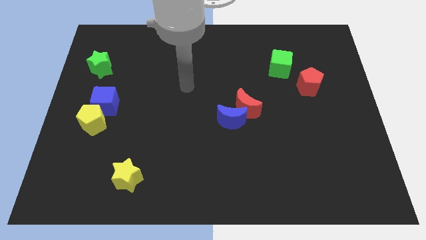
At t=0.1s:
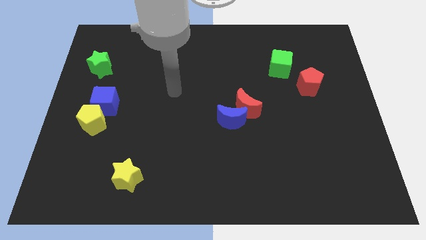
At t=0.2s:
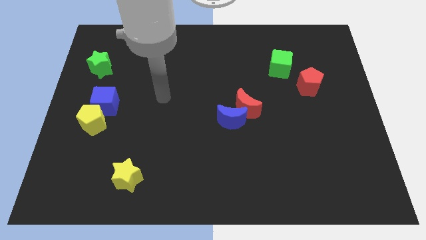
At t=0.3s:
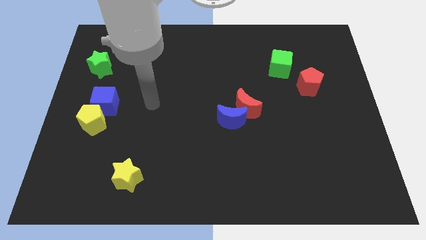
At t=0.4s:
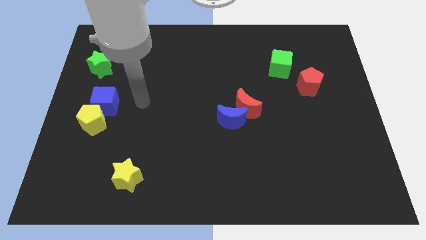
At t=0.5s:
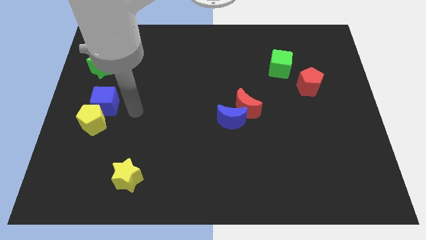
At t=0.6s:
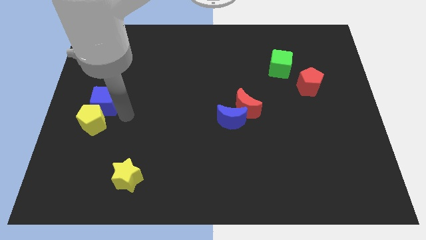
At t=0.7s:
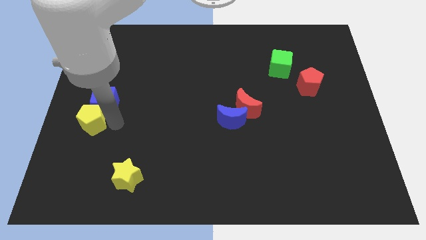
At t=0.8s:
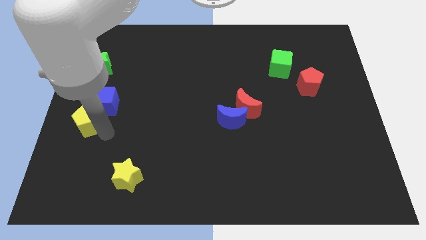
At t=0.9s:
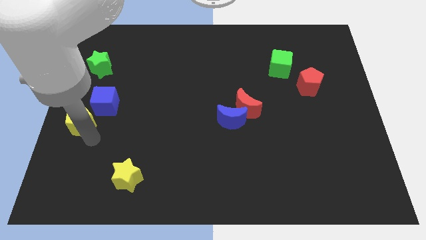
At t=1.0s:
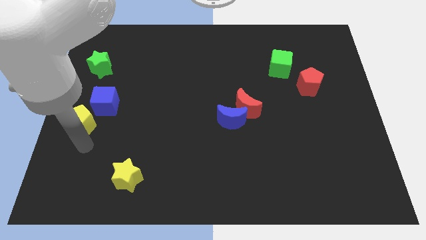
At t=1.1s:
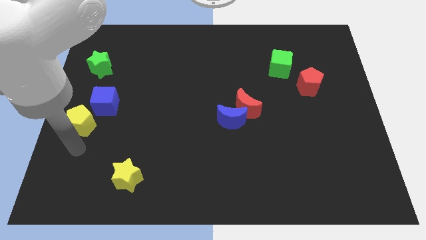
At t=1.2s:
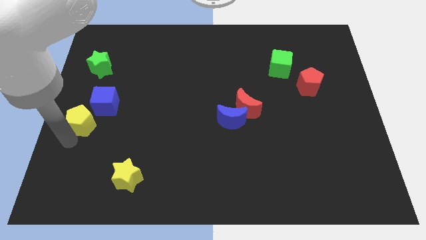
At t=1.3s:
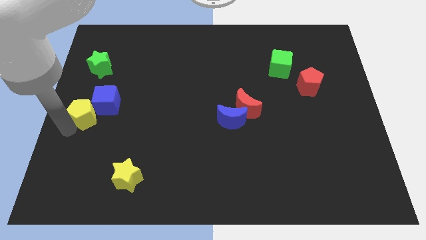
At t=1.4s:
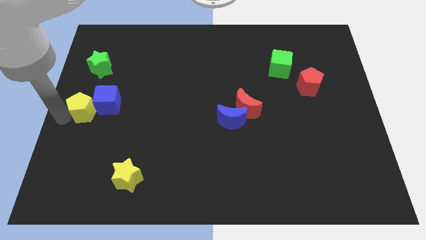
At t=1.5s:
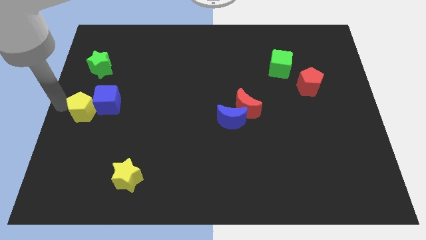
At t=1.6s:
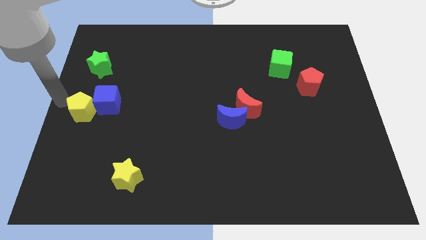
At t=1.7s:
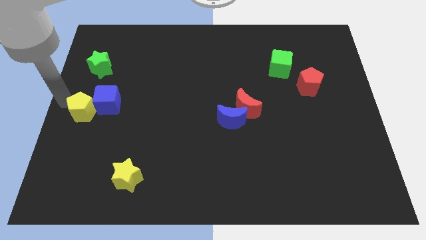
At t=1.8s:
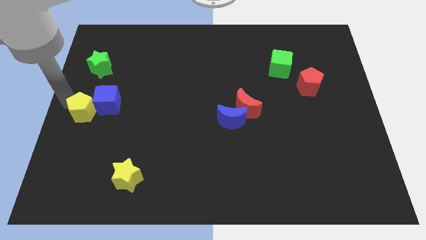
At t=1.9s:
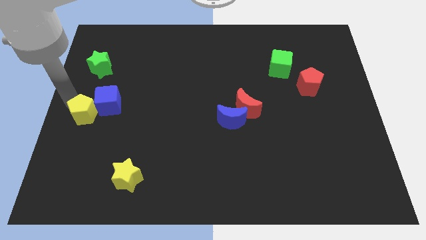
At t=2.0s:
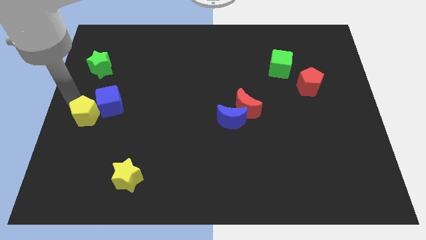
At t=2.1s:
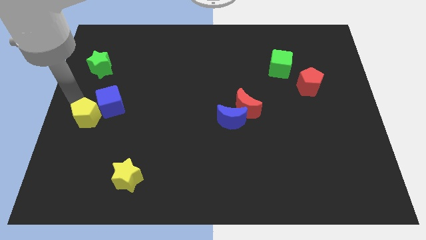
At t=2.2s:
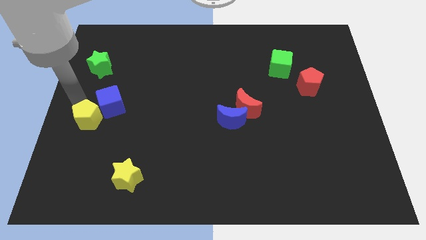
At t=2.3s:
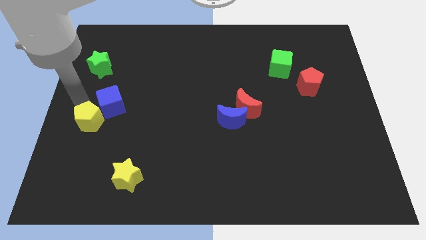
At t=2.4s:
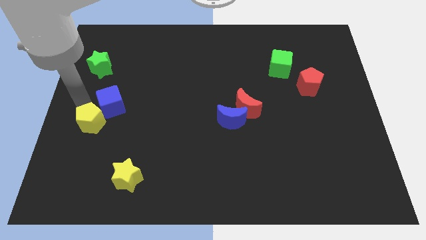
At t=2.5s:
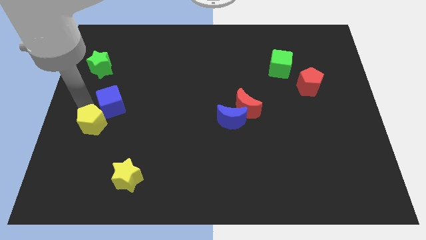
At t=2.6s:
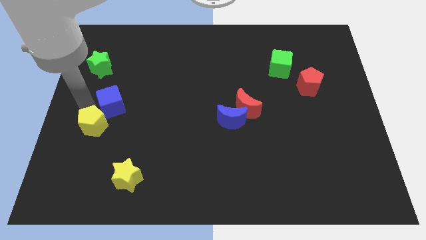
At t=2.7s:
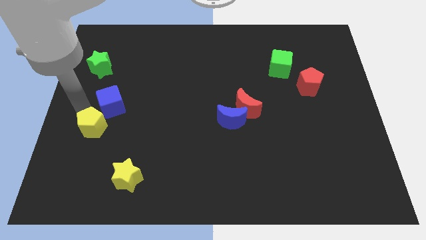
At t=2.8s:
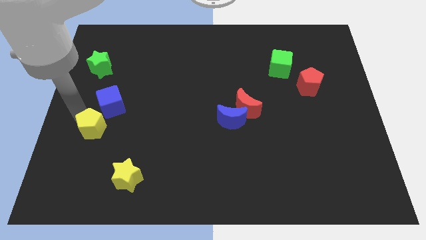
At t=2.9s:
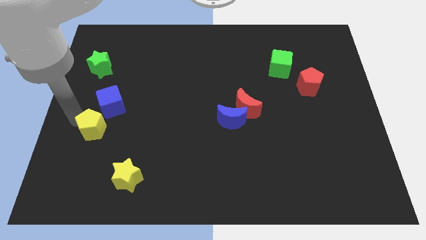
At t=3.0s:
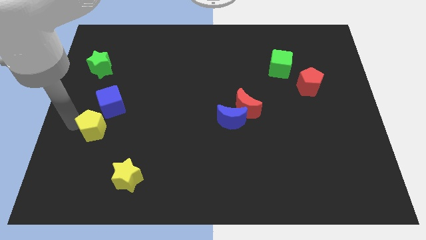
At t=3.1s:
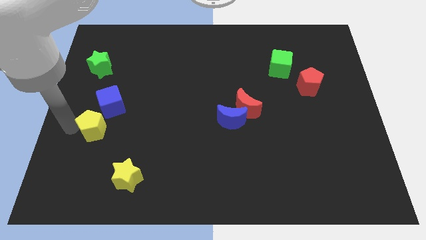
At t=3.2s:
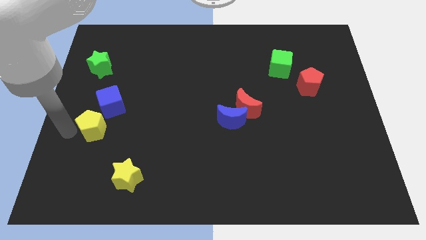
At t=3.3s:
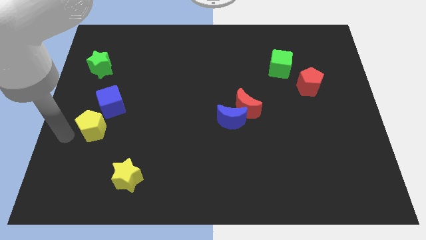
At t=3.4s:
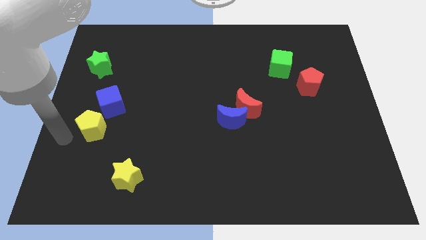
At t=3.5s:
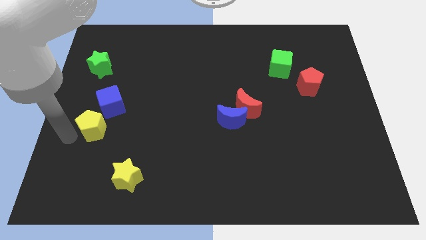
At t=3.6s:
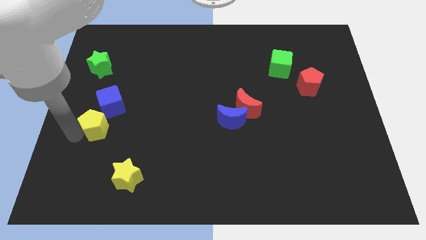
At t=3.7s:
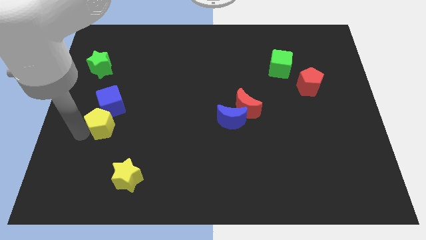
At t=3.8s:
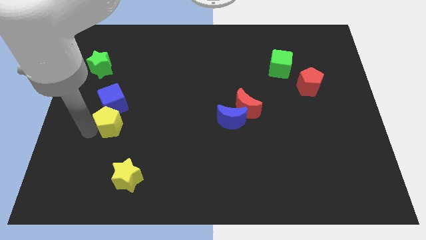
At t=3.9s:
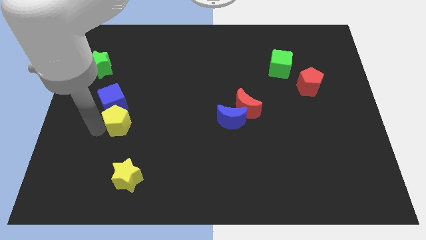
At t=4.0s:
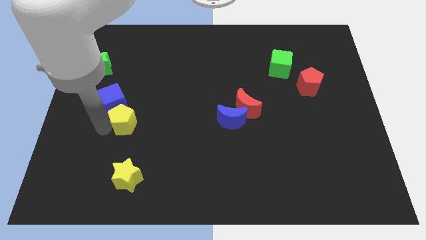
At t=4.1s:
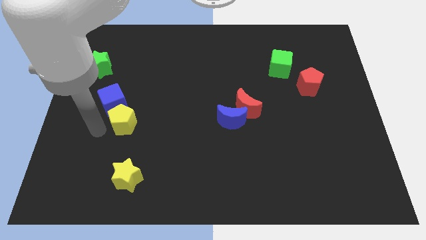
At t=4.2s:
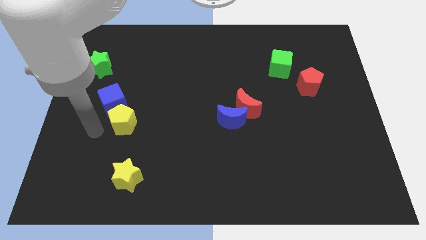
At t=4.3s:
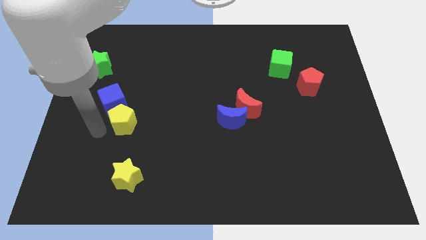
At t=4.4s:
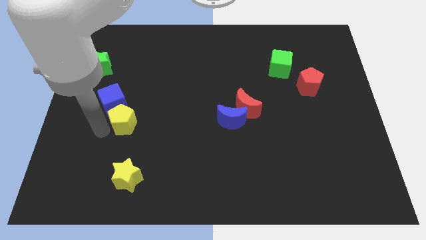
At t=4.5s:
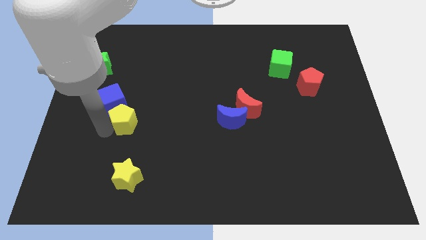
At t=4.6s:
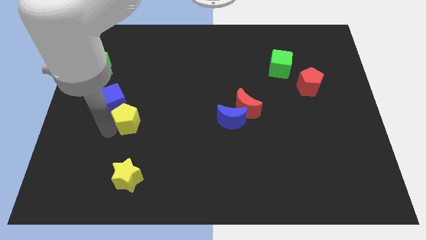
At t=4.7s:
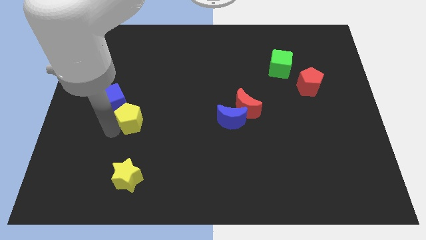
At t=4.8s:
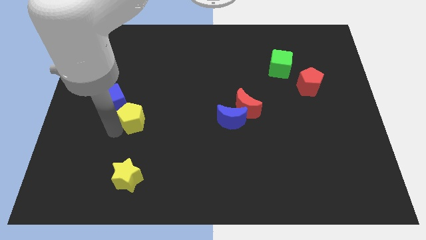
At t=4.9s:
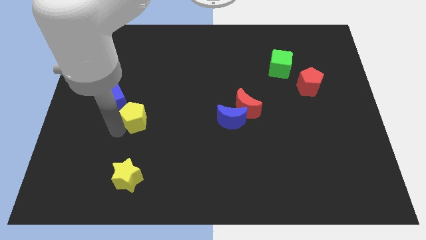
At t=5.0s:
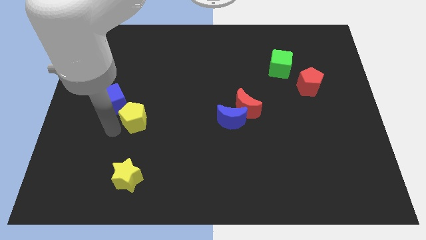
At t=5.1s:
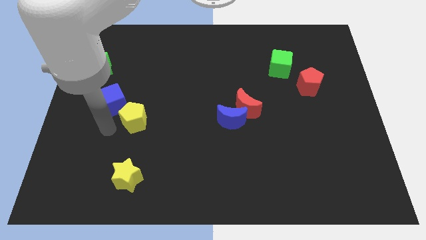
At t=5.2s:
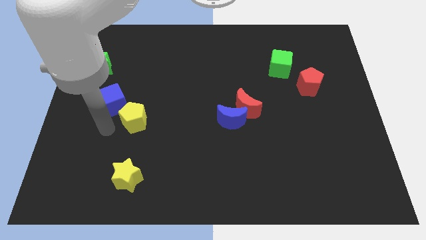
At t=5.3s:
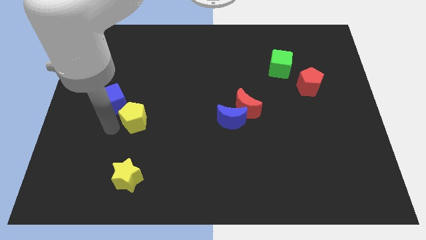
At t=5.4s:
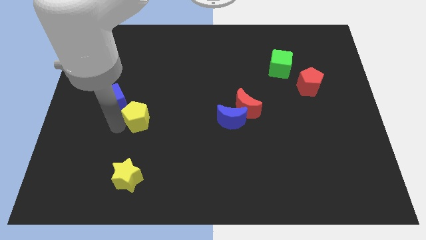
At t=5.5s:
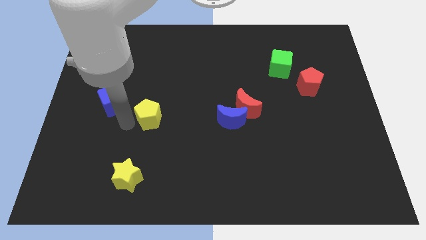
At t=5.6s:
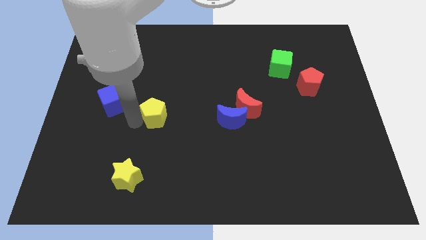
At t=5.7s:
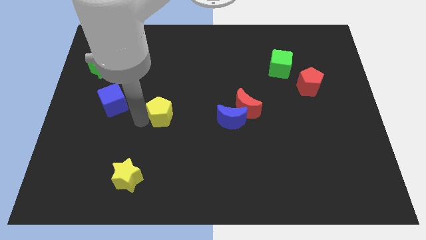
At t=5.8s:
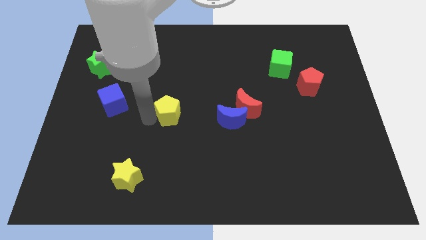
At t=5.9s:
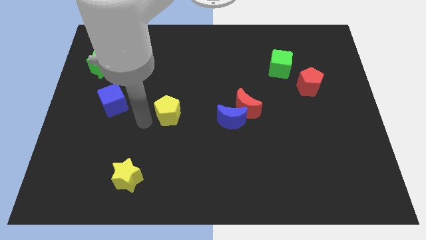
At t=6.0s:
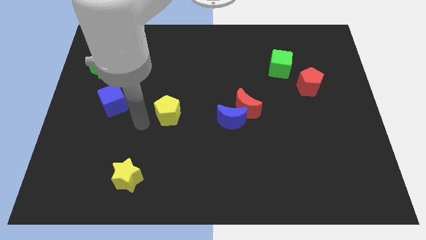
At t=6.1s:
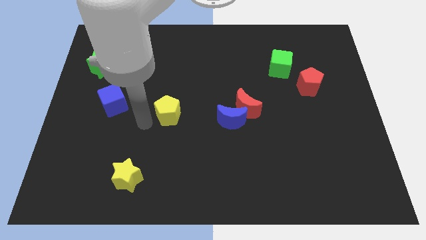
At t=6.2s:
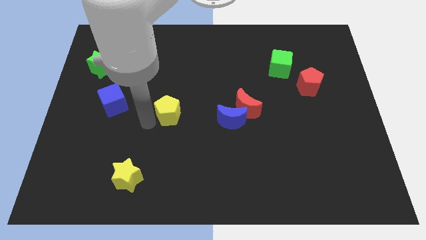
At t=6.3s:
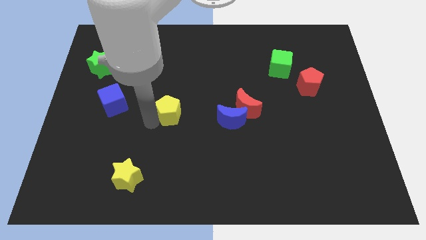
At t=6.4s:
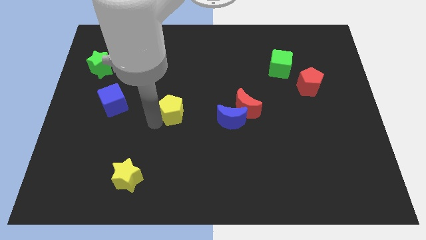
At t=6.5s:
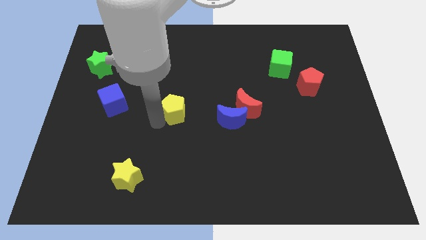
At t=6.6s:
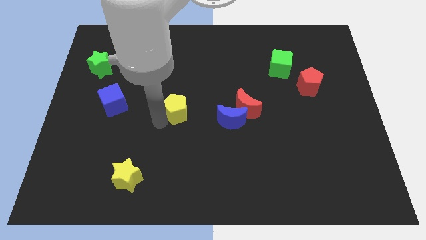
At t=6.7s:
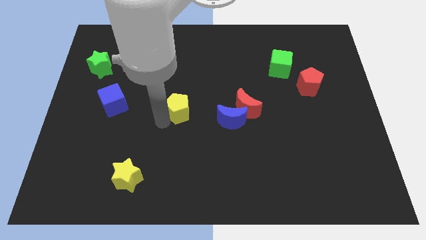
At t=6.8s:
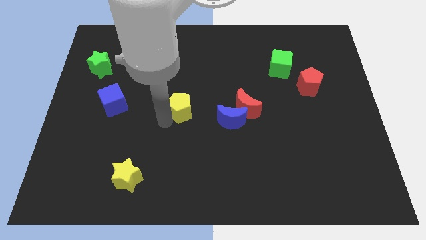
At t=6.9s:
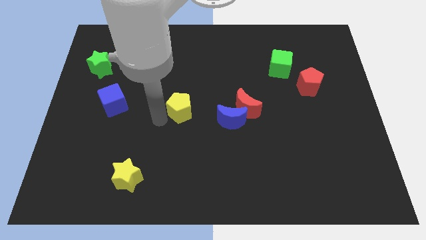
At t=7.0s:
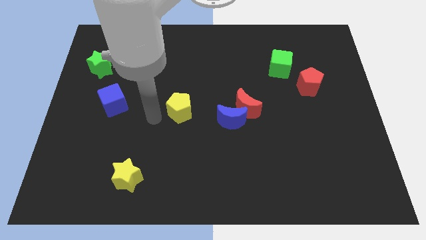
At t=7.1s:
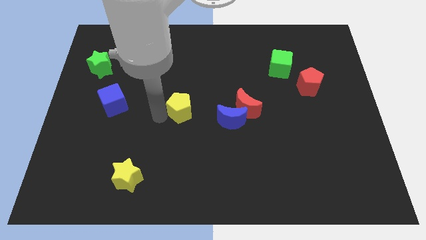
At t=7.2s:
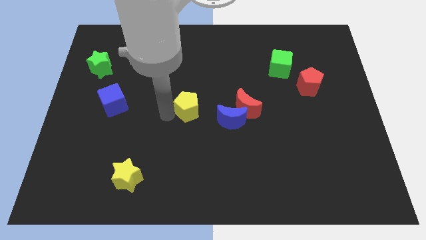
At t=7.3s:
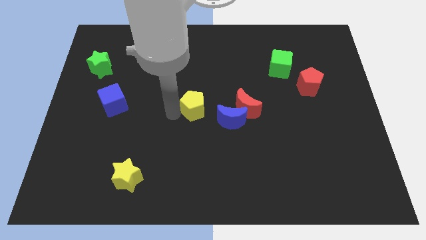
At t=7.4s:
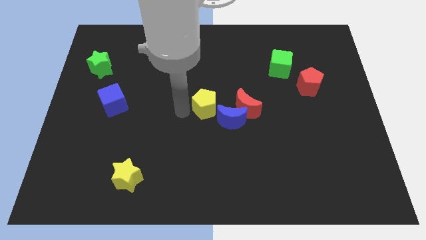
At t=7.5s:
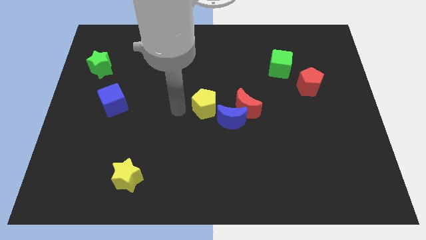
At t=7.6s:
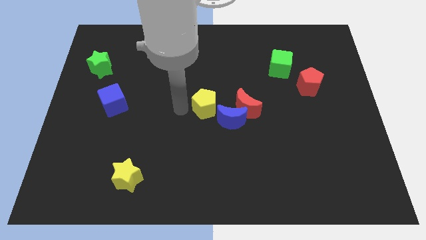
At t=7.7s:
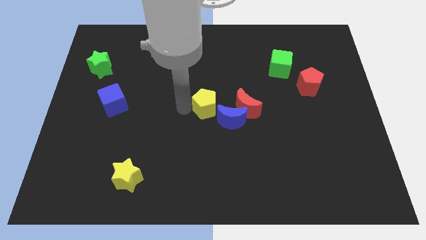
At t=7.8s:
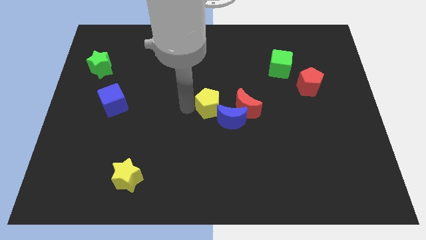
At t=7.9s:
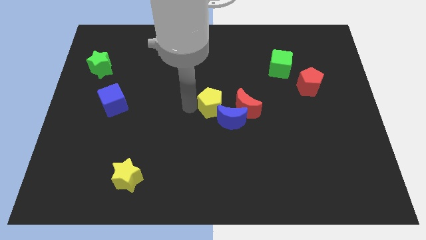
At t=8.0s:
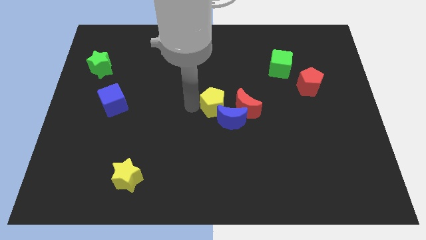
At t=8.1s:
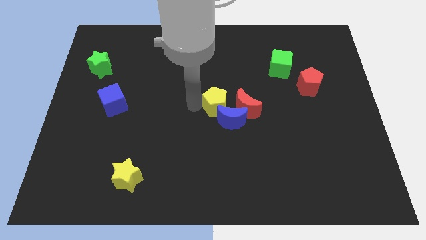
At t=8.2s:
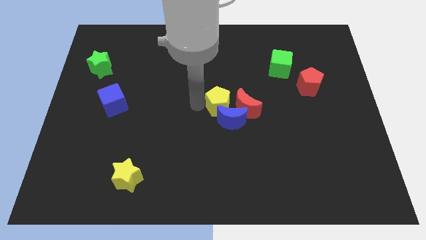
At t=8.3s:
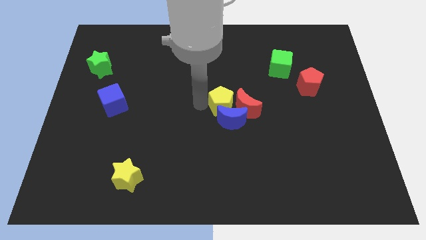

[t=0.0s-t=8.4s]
put the yellow pentagon towards the red moon
